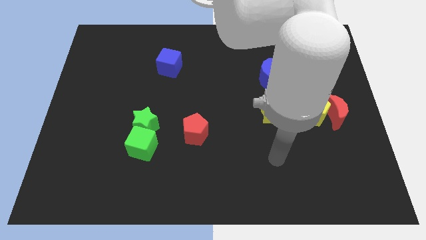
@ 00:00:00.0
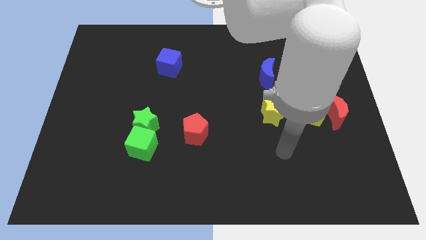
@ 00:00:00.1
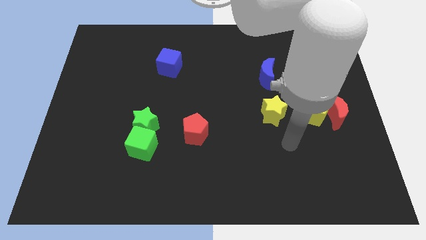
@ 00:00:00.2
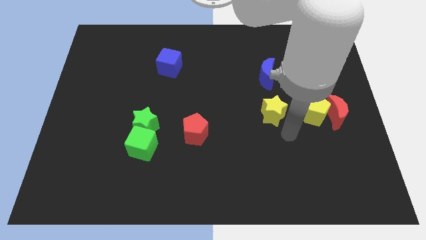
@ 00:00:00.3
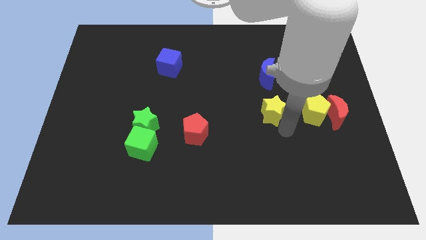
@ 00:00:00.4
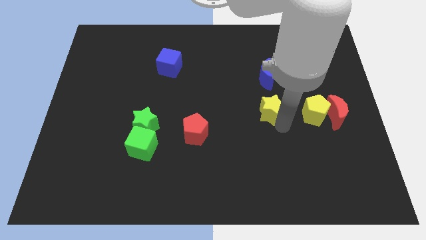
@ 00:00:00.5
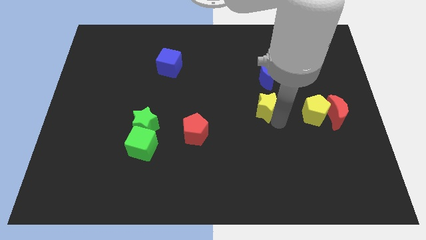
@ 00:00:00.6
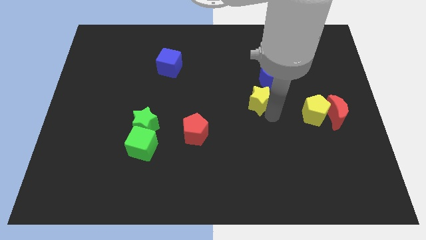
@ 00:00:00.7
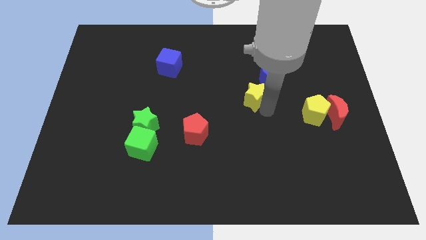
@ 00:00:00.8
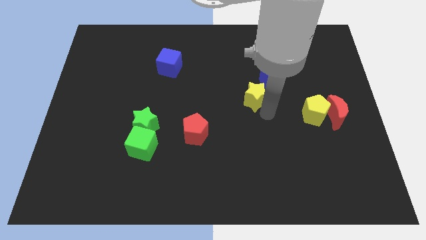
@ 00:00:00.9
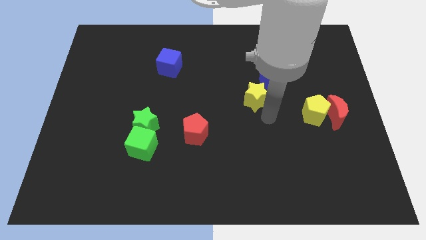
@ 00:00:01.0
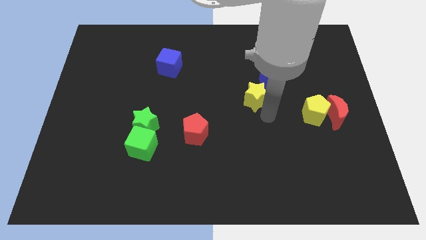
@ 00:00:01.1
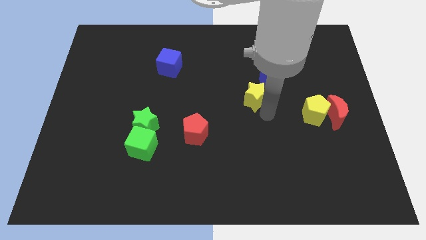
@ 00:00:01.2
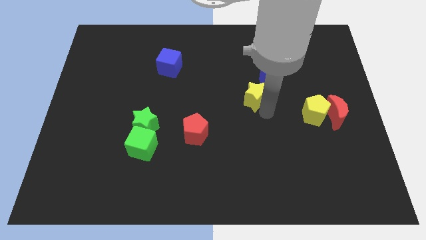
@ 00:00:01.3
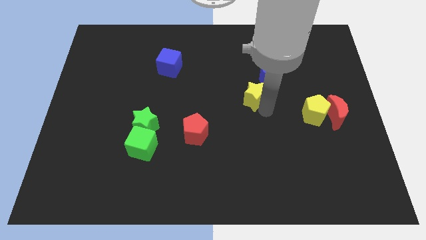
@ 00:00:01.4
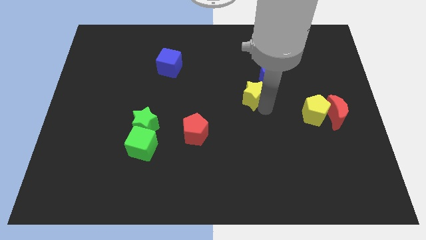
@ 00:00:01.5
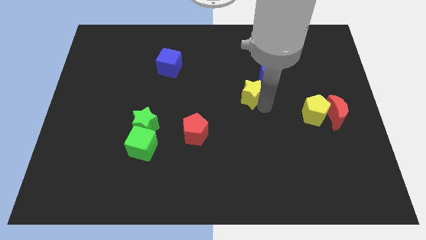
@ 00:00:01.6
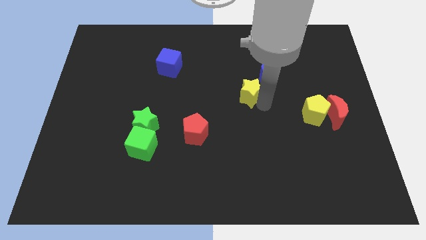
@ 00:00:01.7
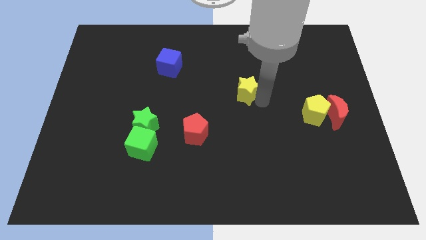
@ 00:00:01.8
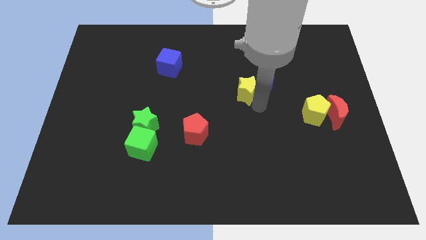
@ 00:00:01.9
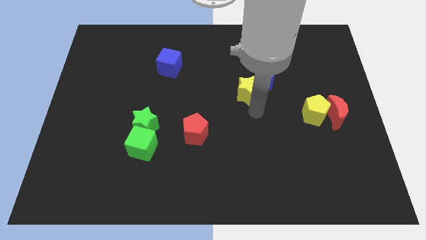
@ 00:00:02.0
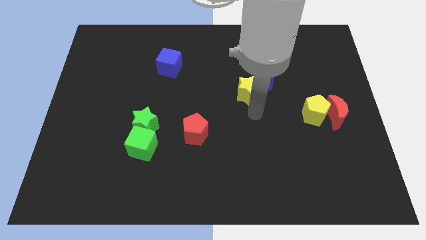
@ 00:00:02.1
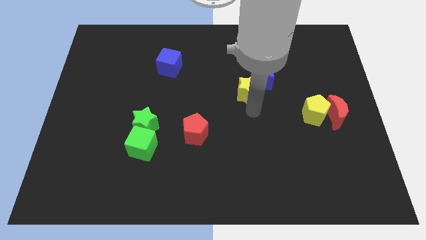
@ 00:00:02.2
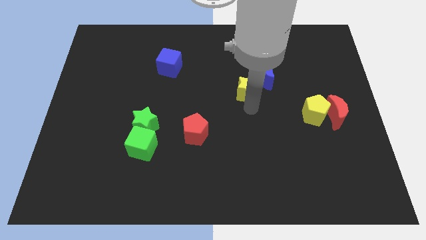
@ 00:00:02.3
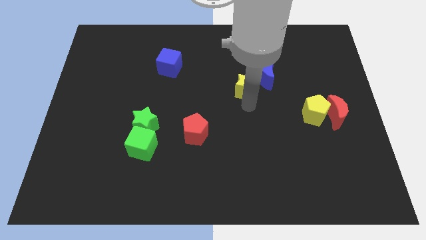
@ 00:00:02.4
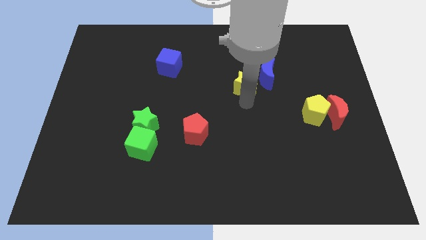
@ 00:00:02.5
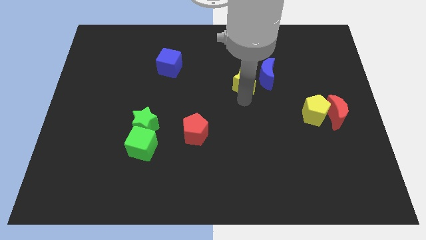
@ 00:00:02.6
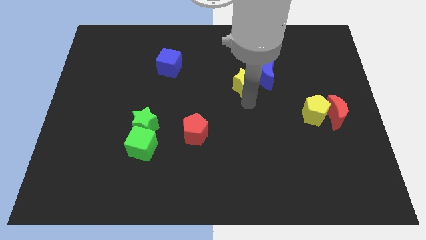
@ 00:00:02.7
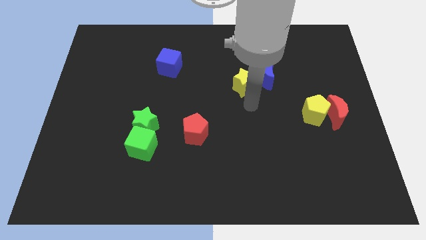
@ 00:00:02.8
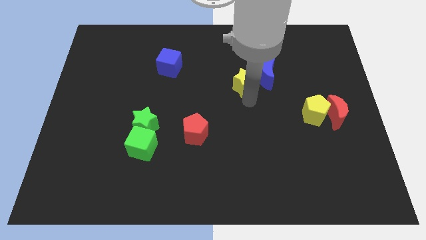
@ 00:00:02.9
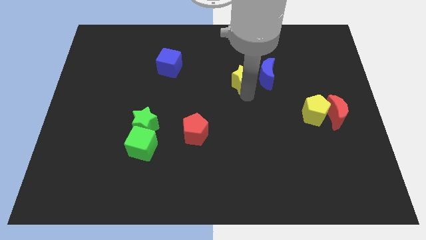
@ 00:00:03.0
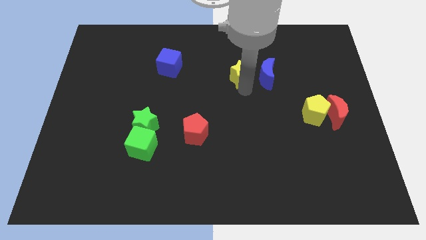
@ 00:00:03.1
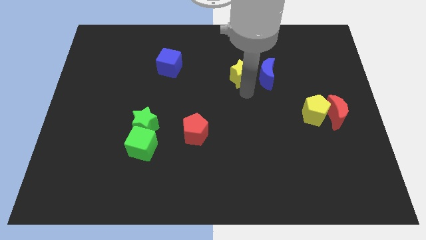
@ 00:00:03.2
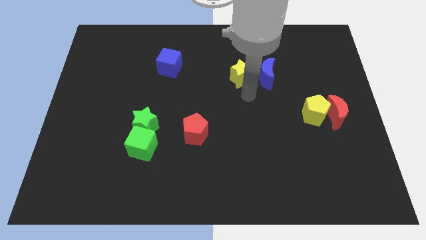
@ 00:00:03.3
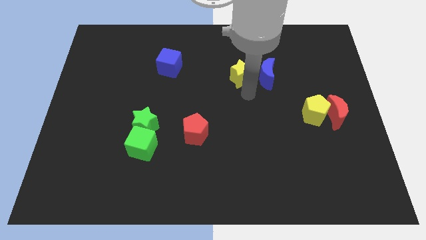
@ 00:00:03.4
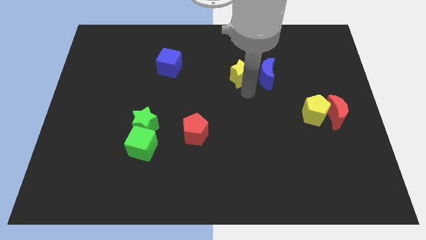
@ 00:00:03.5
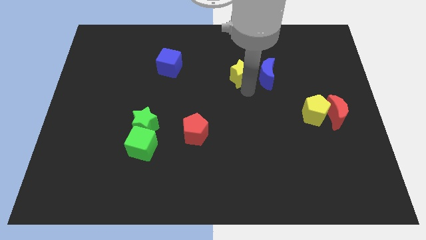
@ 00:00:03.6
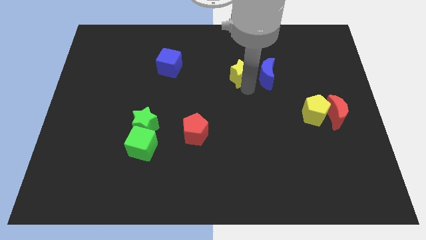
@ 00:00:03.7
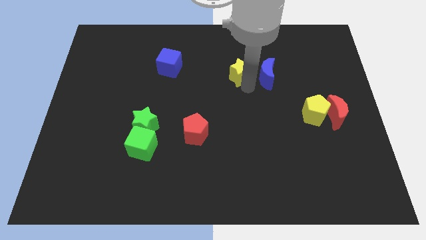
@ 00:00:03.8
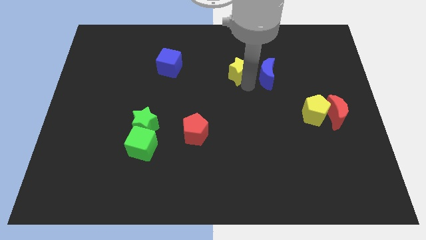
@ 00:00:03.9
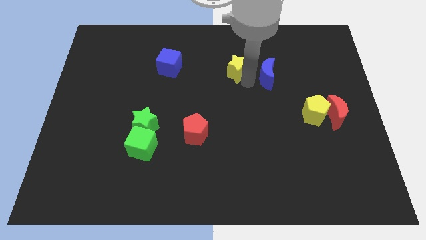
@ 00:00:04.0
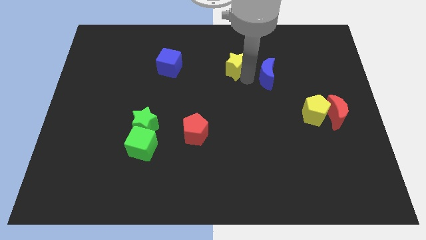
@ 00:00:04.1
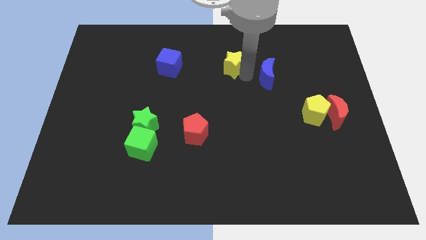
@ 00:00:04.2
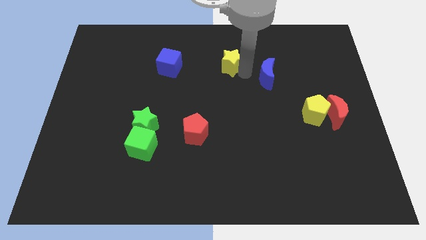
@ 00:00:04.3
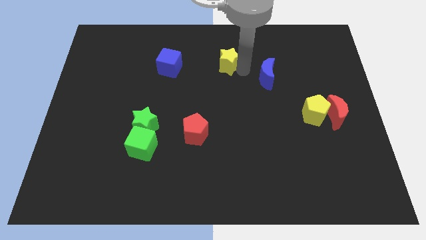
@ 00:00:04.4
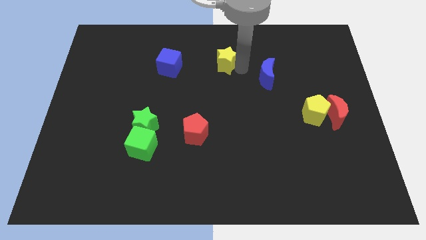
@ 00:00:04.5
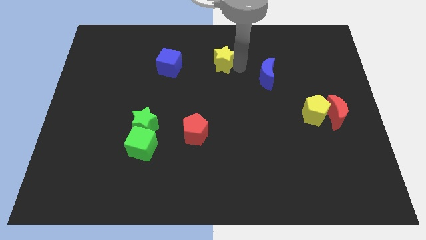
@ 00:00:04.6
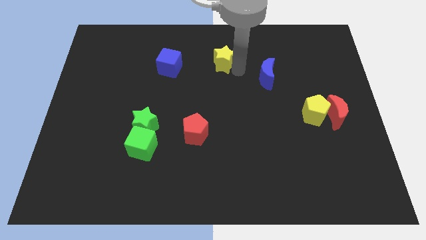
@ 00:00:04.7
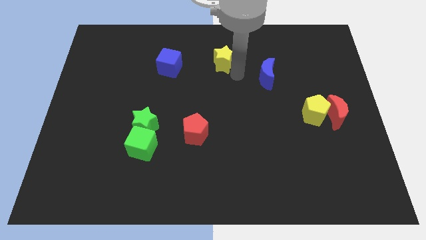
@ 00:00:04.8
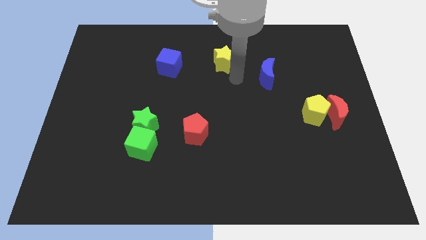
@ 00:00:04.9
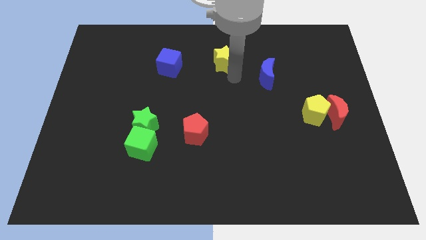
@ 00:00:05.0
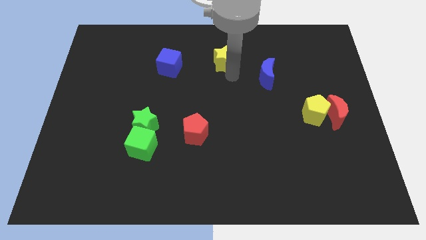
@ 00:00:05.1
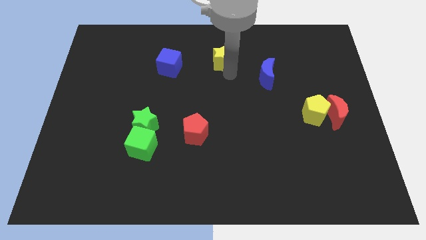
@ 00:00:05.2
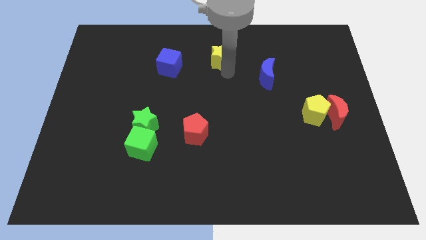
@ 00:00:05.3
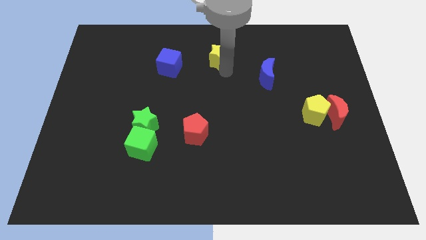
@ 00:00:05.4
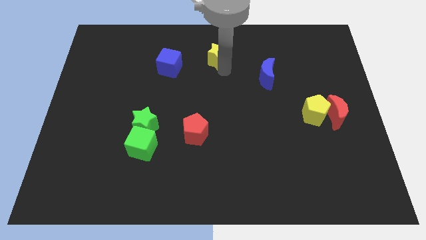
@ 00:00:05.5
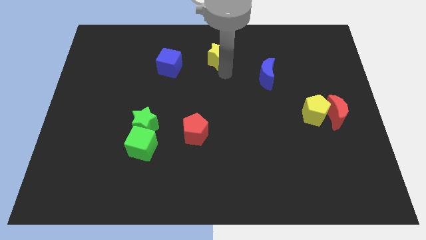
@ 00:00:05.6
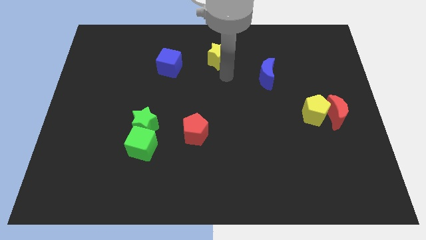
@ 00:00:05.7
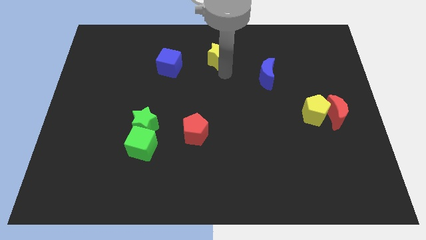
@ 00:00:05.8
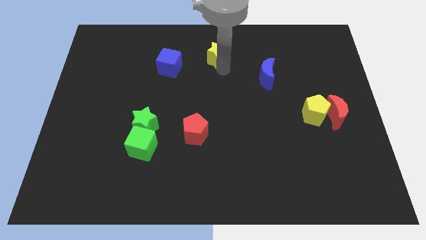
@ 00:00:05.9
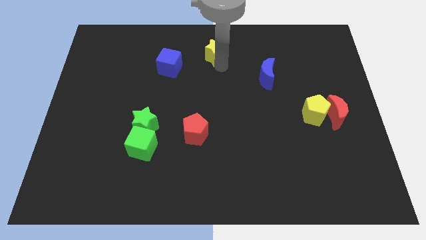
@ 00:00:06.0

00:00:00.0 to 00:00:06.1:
put the yellow star to the towards your base
